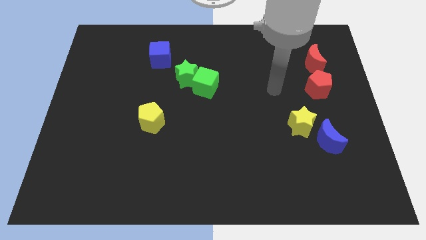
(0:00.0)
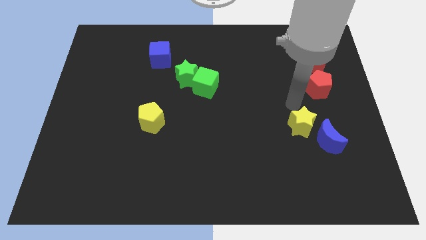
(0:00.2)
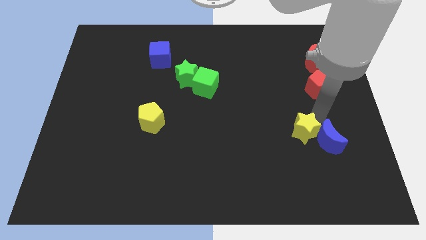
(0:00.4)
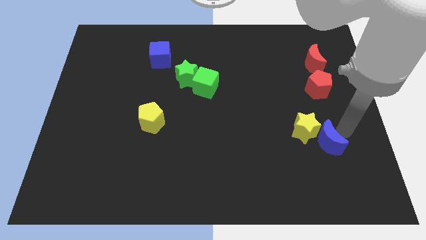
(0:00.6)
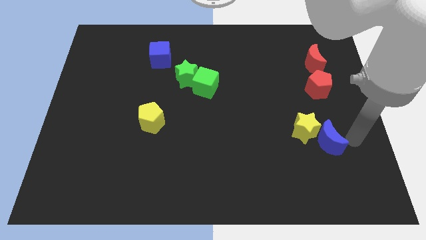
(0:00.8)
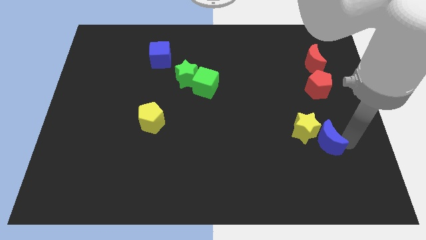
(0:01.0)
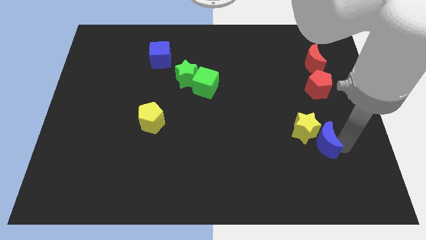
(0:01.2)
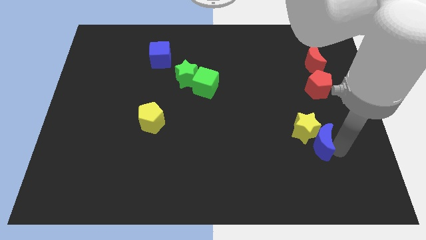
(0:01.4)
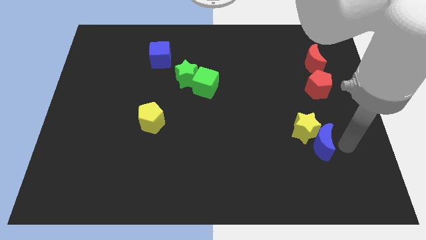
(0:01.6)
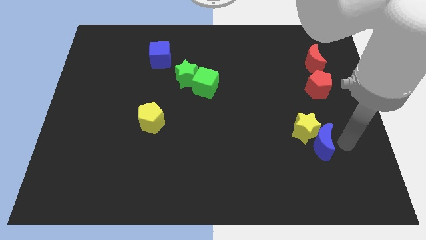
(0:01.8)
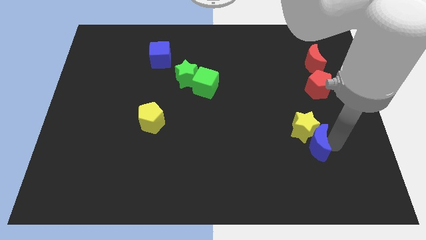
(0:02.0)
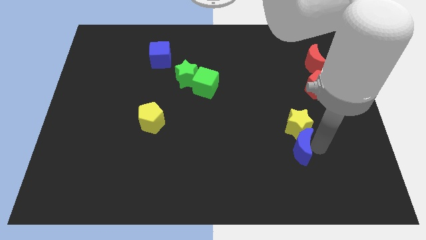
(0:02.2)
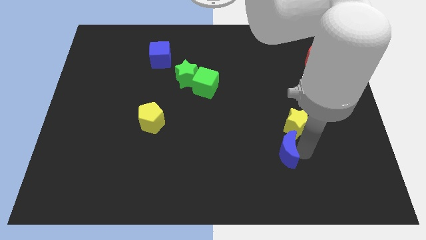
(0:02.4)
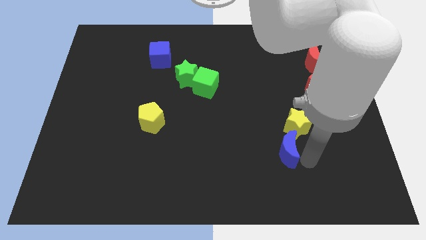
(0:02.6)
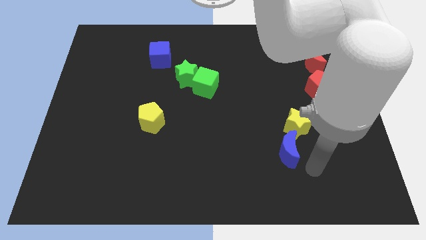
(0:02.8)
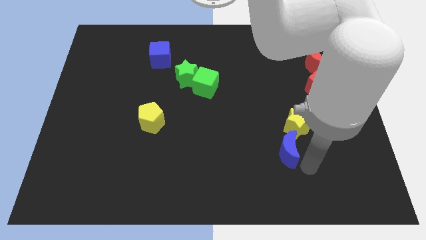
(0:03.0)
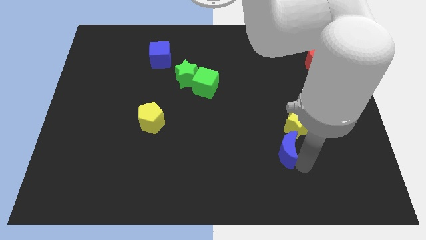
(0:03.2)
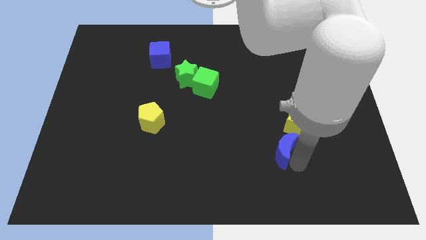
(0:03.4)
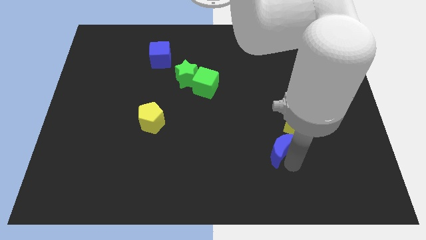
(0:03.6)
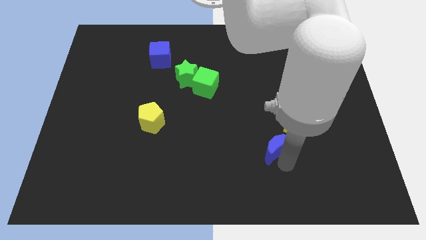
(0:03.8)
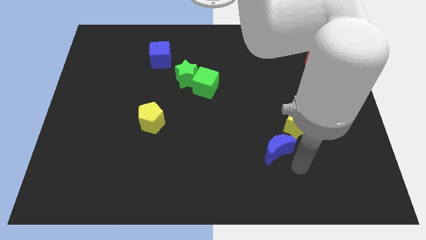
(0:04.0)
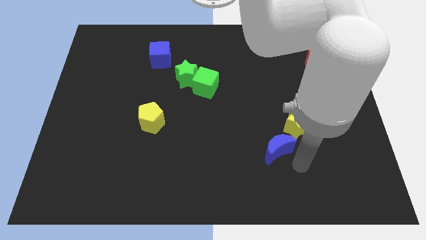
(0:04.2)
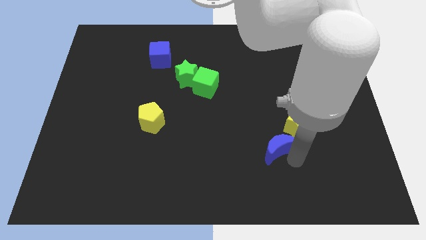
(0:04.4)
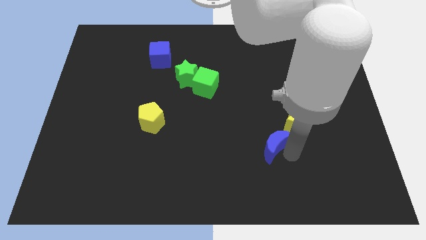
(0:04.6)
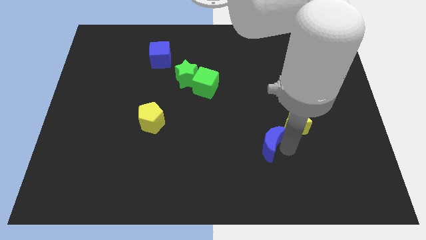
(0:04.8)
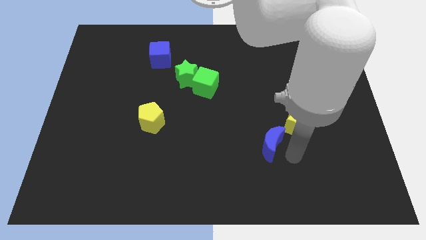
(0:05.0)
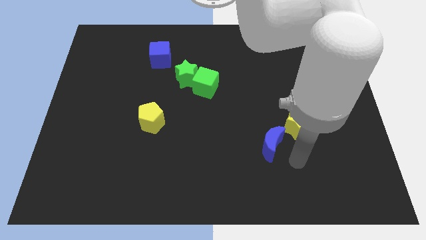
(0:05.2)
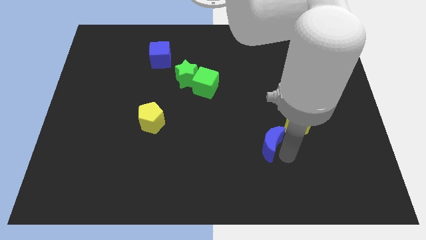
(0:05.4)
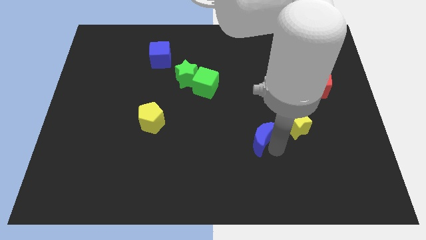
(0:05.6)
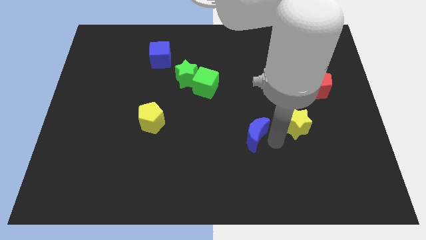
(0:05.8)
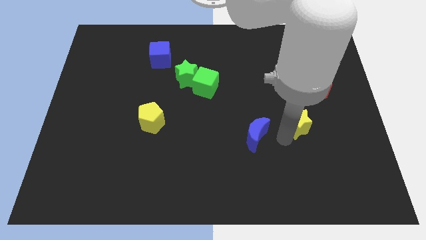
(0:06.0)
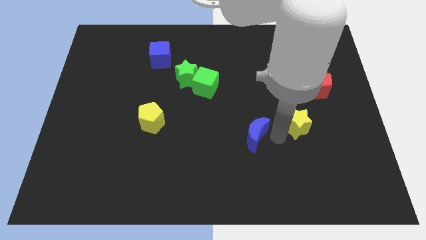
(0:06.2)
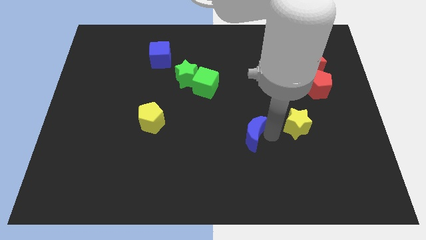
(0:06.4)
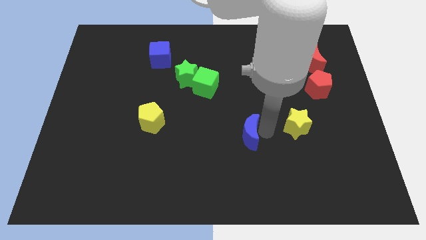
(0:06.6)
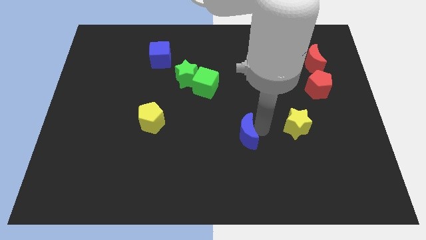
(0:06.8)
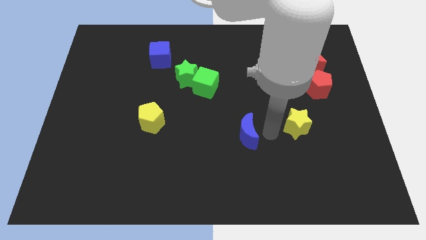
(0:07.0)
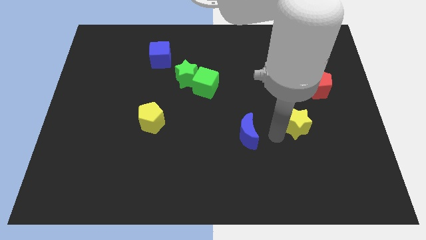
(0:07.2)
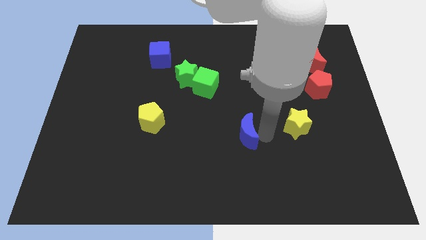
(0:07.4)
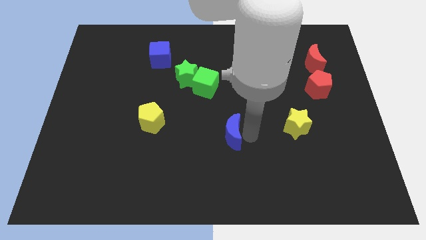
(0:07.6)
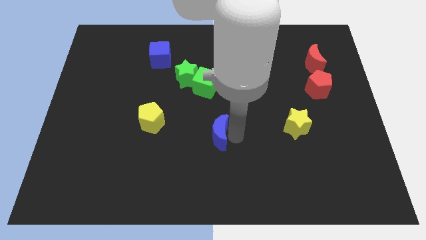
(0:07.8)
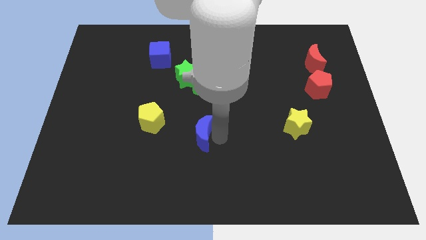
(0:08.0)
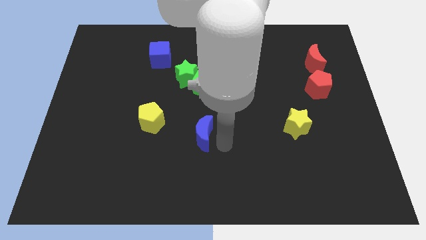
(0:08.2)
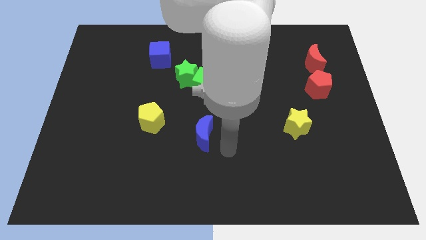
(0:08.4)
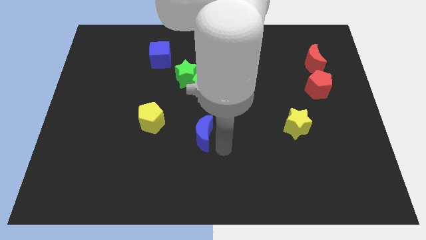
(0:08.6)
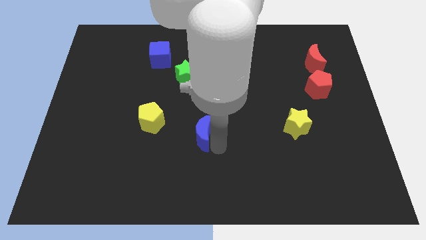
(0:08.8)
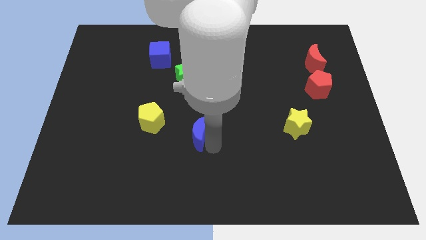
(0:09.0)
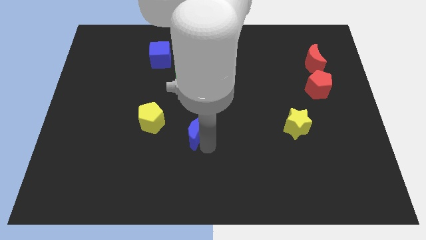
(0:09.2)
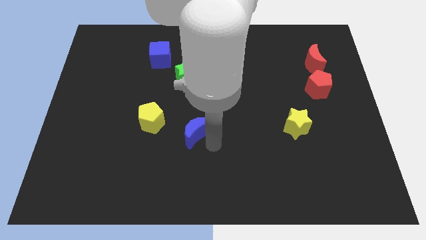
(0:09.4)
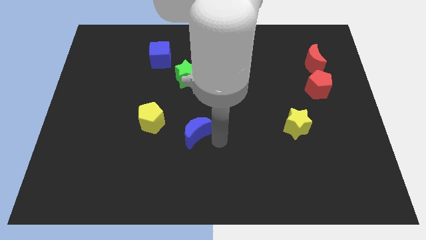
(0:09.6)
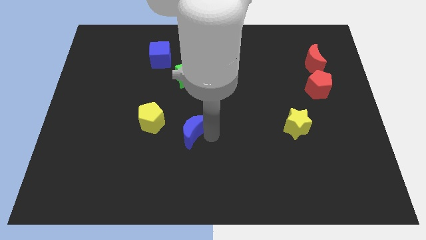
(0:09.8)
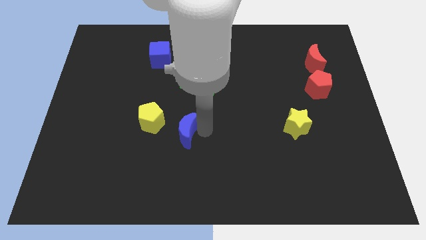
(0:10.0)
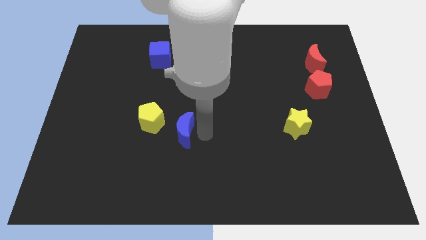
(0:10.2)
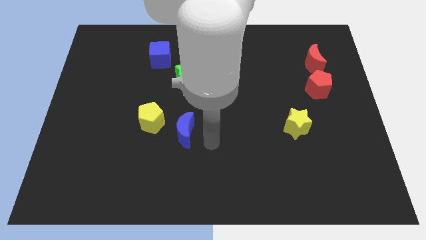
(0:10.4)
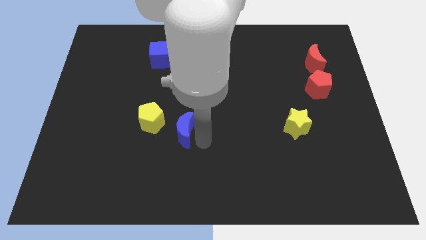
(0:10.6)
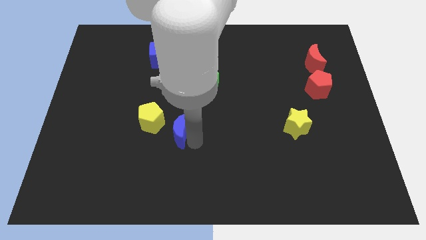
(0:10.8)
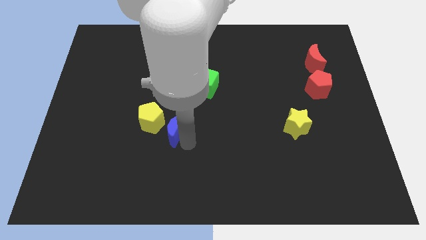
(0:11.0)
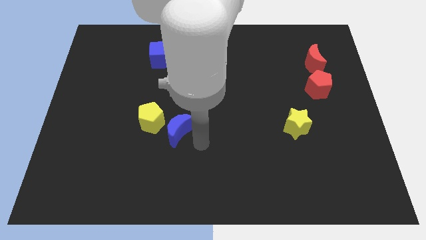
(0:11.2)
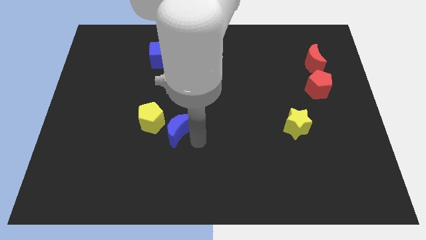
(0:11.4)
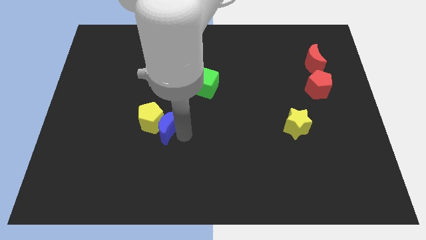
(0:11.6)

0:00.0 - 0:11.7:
move the blue moon to the yellow pentagon

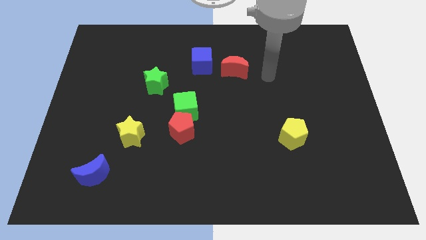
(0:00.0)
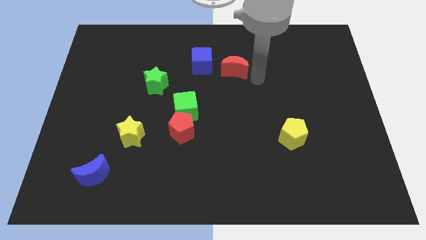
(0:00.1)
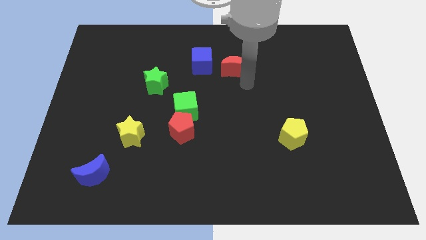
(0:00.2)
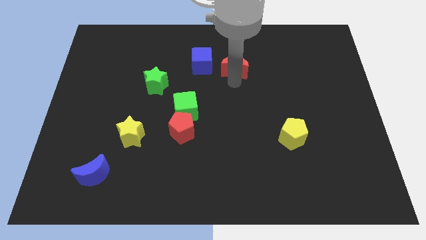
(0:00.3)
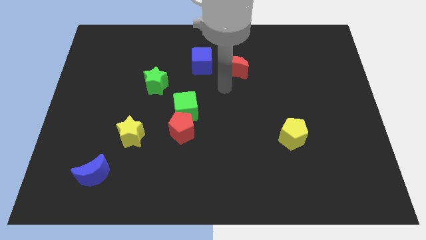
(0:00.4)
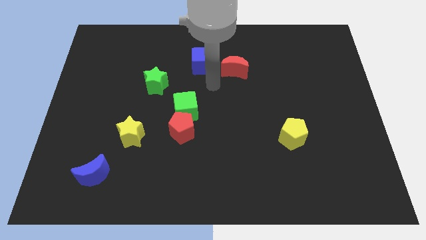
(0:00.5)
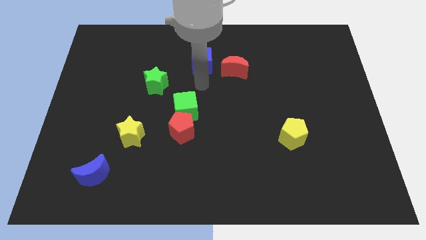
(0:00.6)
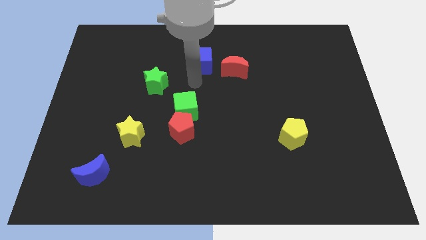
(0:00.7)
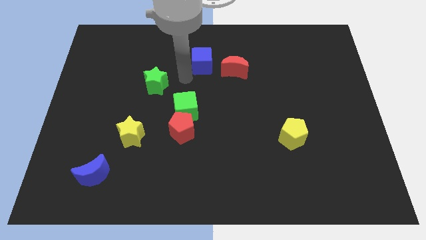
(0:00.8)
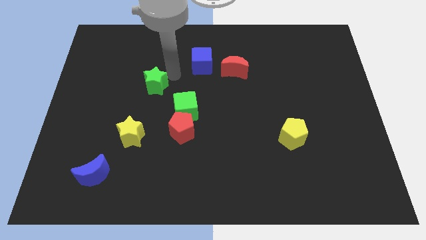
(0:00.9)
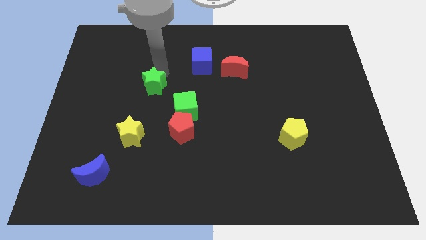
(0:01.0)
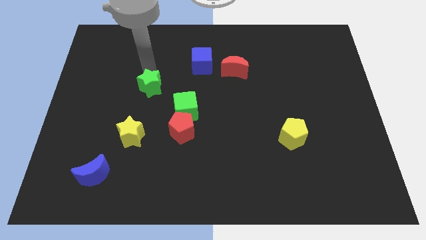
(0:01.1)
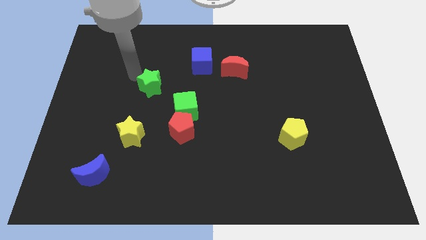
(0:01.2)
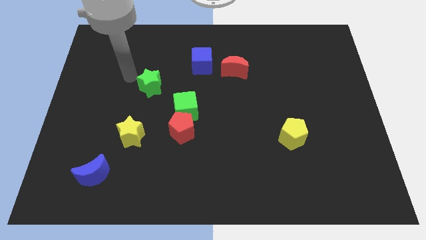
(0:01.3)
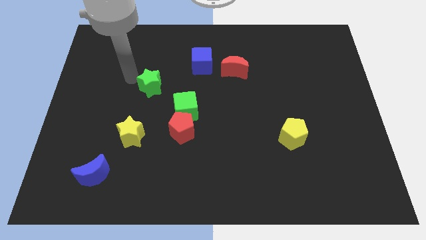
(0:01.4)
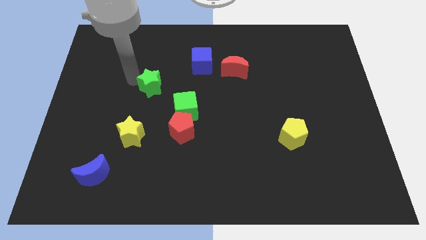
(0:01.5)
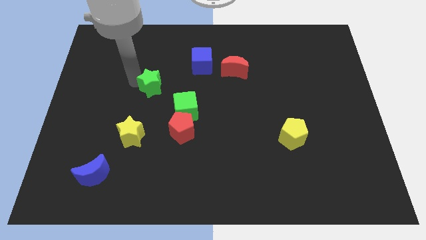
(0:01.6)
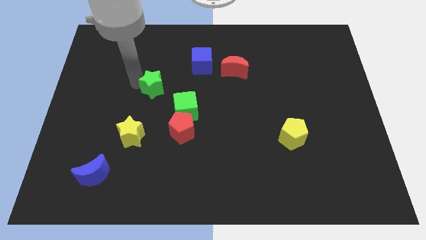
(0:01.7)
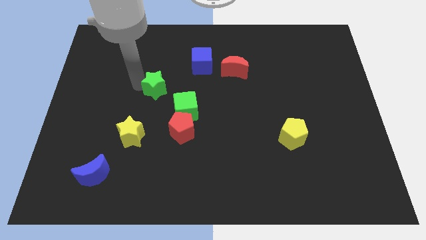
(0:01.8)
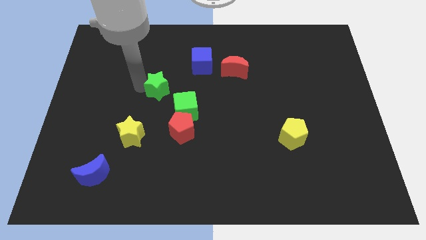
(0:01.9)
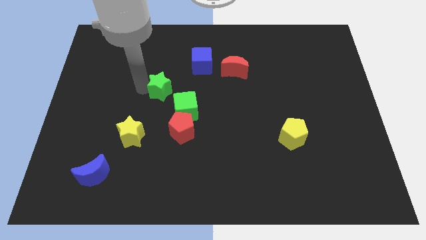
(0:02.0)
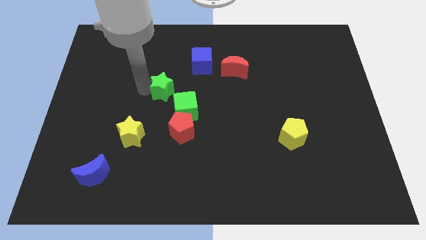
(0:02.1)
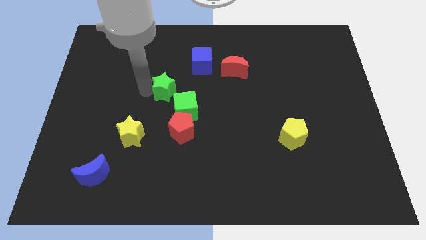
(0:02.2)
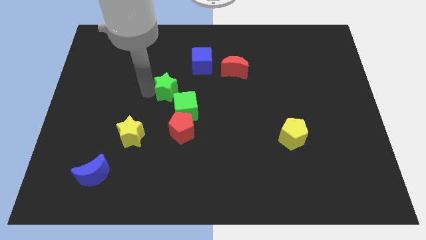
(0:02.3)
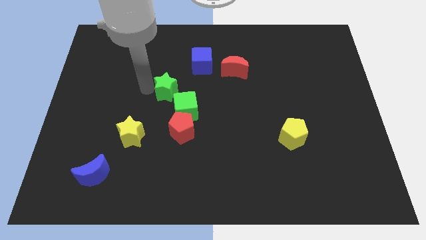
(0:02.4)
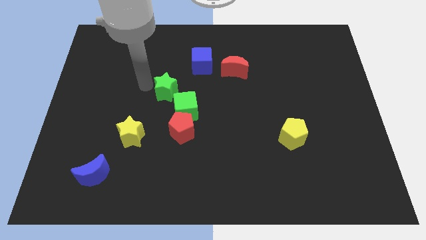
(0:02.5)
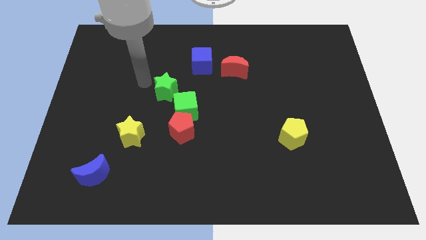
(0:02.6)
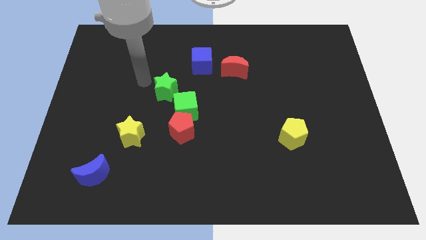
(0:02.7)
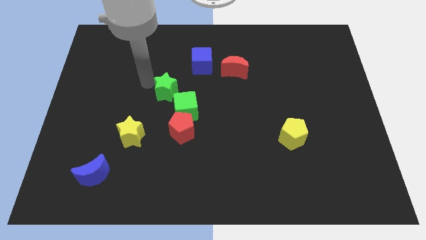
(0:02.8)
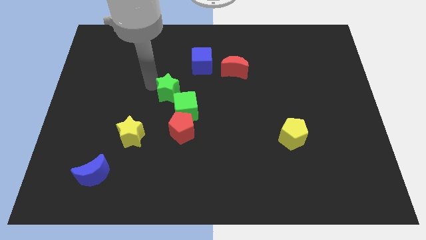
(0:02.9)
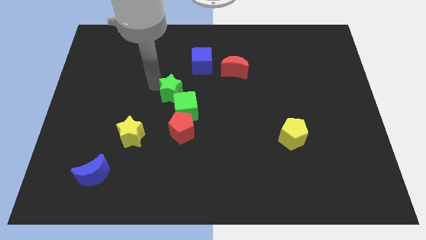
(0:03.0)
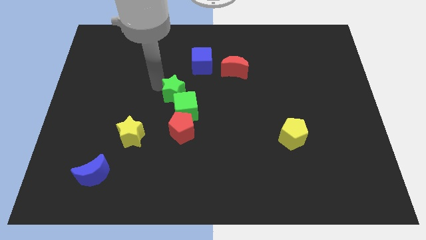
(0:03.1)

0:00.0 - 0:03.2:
move the green star to the green cube
